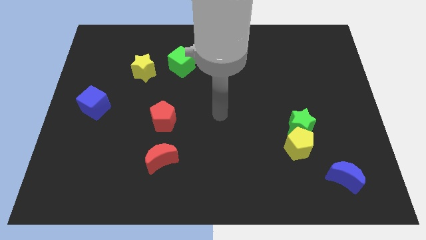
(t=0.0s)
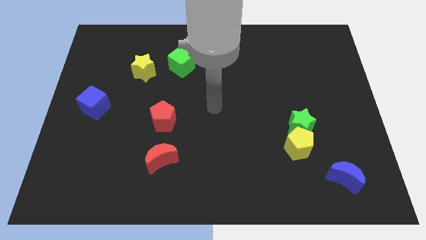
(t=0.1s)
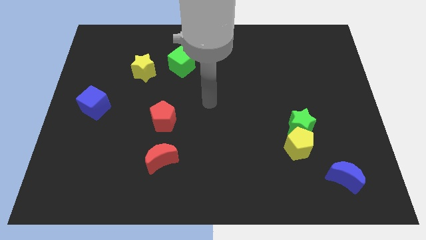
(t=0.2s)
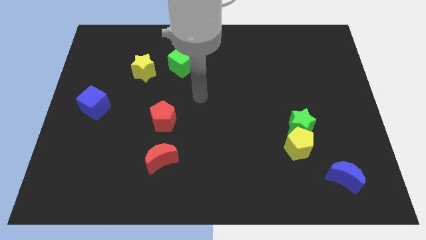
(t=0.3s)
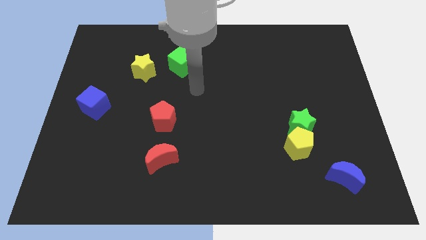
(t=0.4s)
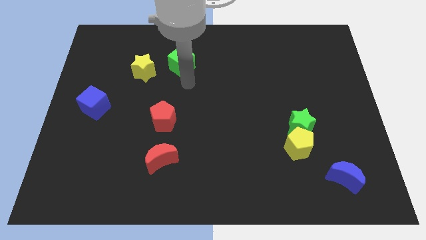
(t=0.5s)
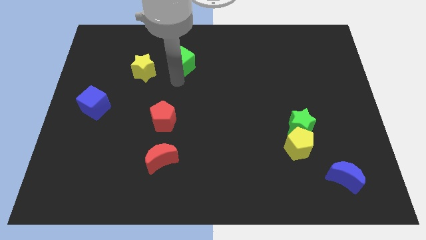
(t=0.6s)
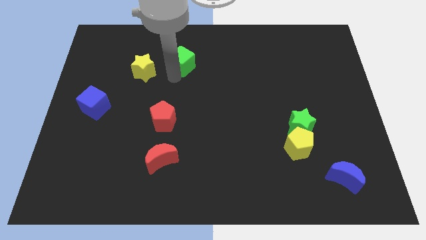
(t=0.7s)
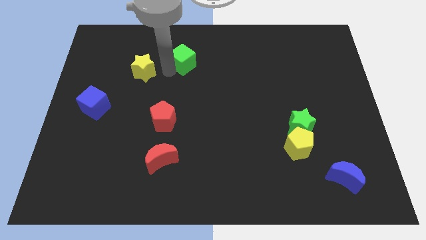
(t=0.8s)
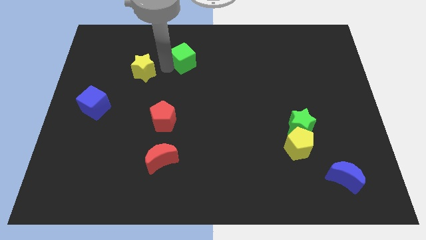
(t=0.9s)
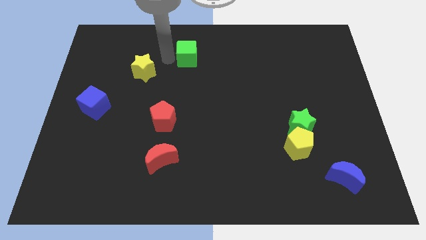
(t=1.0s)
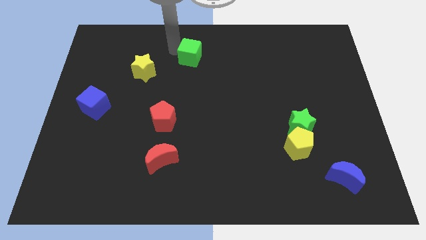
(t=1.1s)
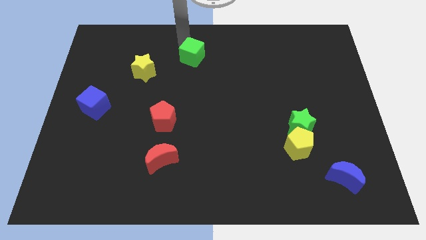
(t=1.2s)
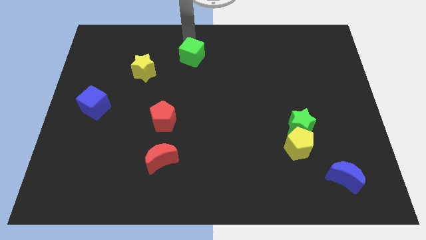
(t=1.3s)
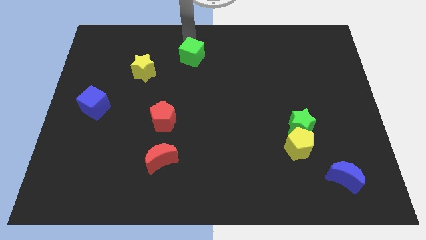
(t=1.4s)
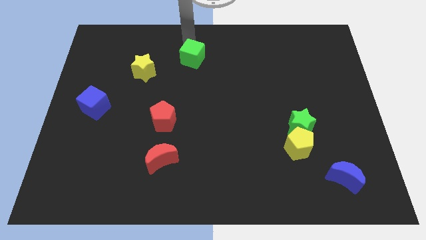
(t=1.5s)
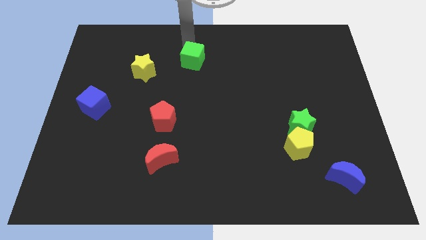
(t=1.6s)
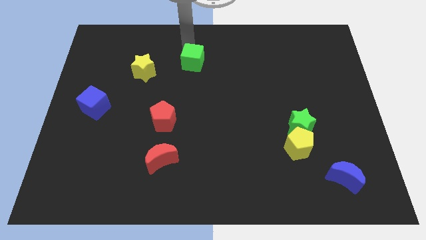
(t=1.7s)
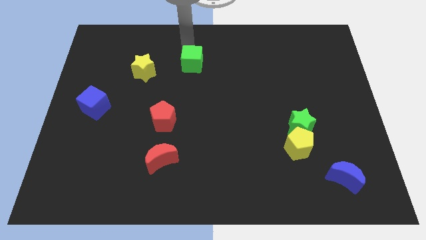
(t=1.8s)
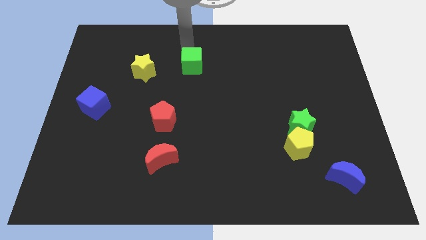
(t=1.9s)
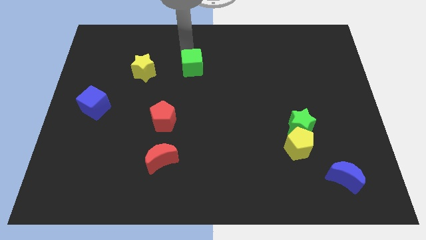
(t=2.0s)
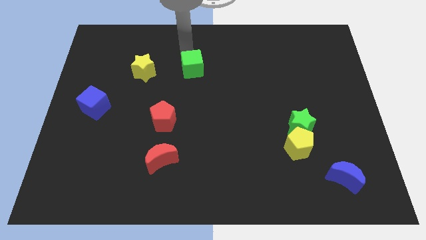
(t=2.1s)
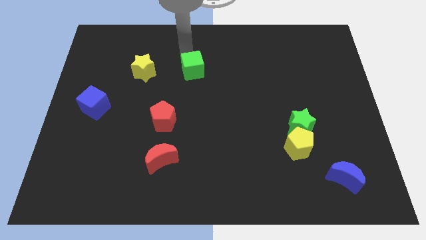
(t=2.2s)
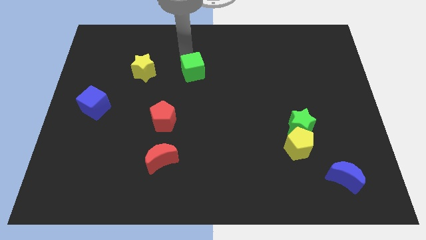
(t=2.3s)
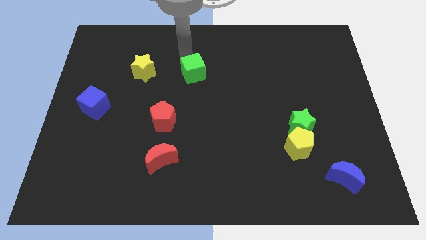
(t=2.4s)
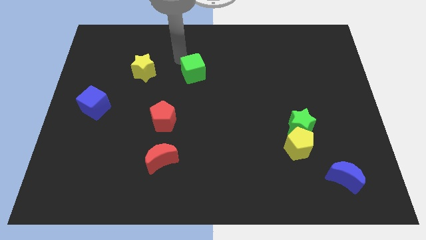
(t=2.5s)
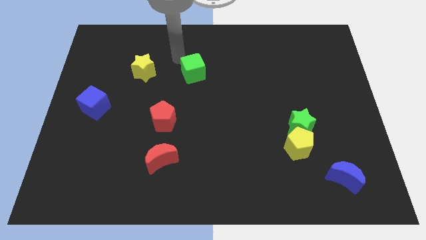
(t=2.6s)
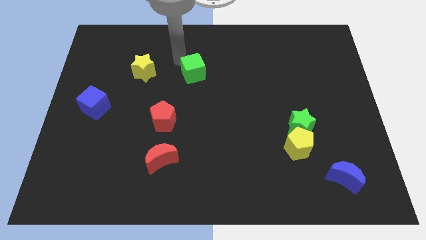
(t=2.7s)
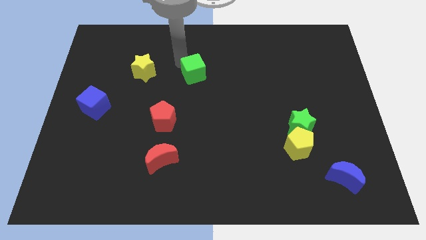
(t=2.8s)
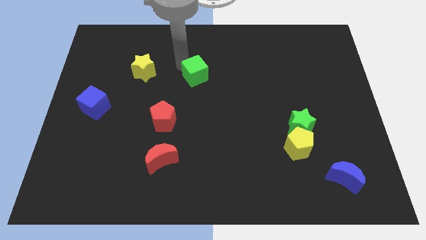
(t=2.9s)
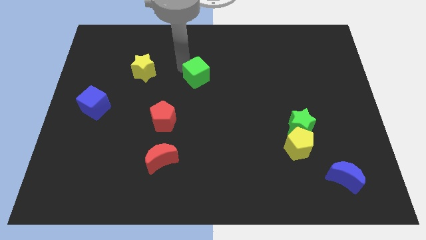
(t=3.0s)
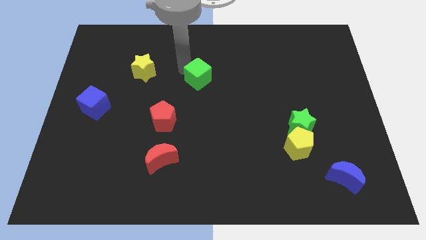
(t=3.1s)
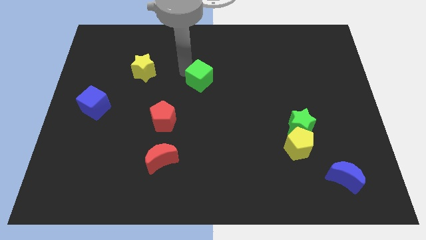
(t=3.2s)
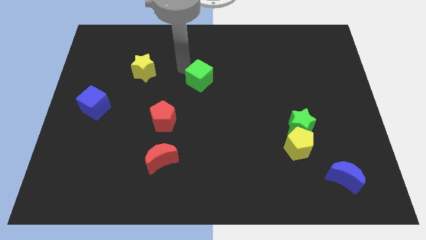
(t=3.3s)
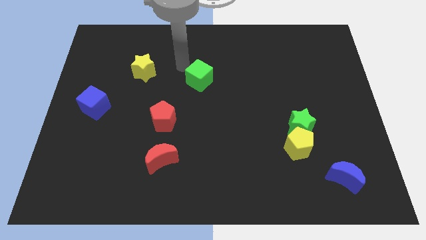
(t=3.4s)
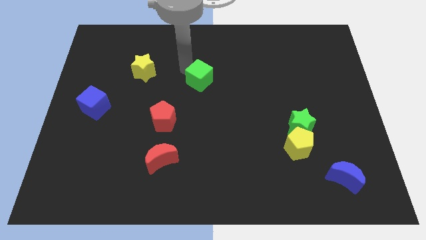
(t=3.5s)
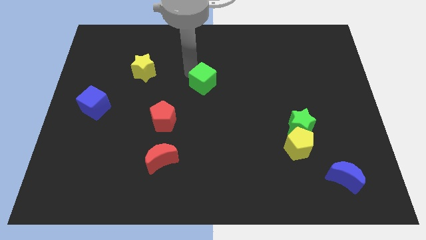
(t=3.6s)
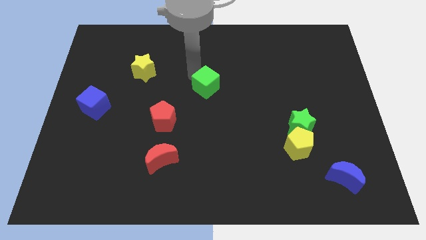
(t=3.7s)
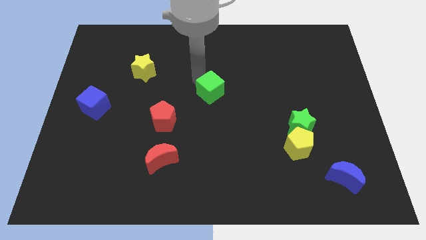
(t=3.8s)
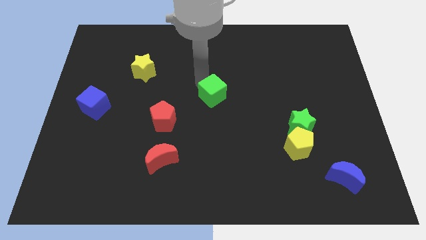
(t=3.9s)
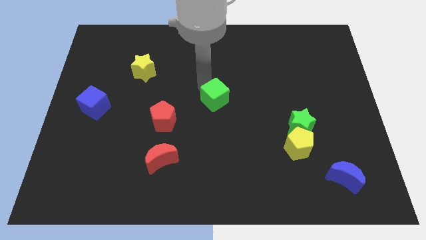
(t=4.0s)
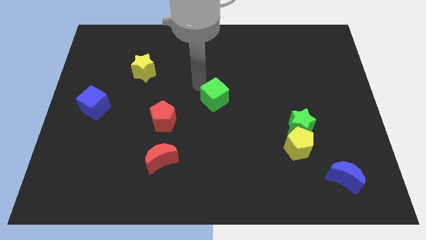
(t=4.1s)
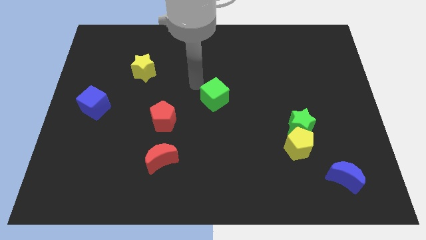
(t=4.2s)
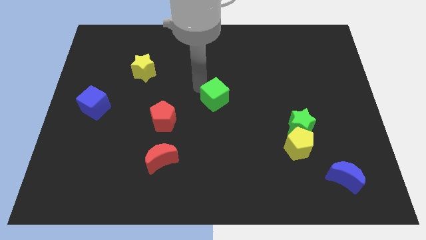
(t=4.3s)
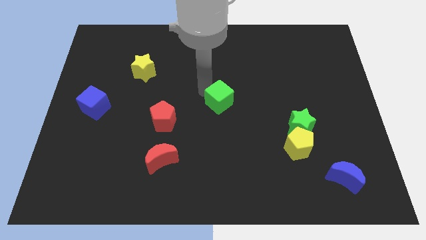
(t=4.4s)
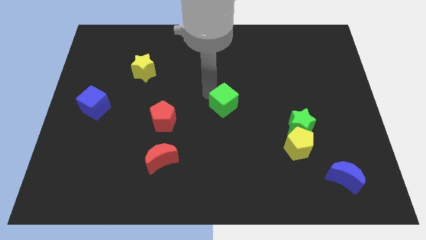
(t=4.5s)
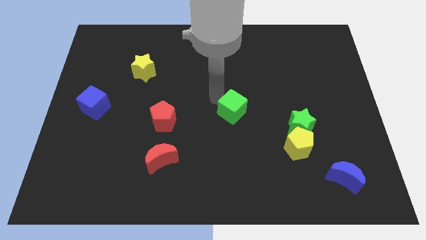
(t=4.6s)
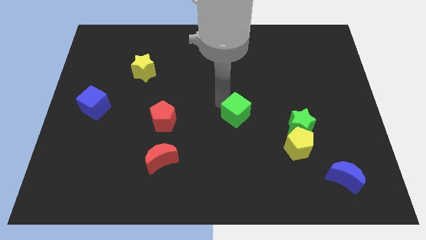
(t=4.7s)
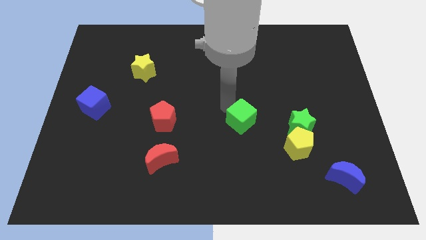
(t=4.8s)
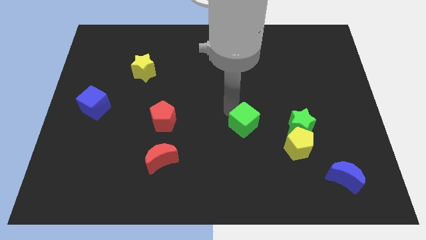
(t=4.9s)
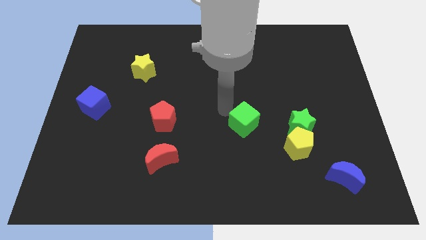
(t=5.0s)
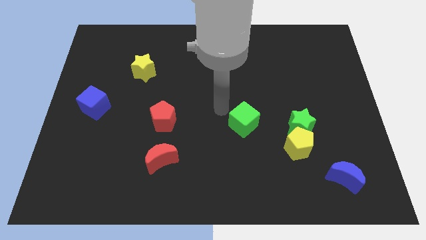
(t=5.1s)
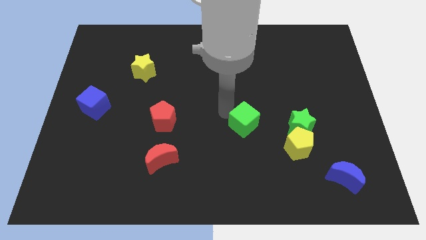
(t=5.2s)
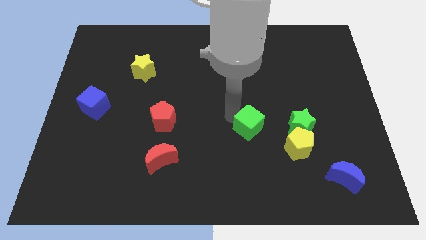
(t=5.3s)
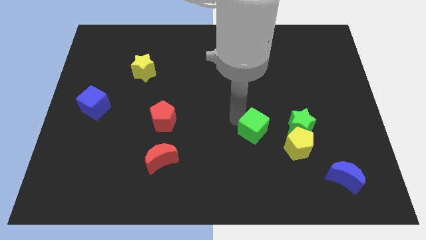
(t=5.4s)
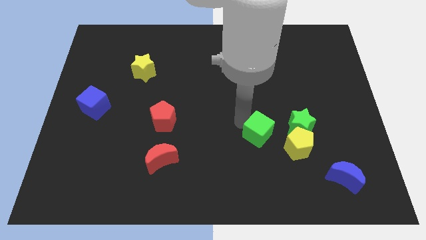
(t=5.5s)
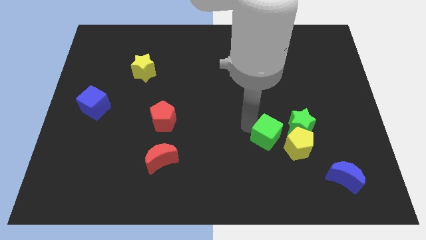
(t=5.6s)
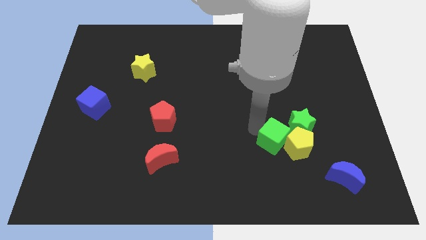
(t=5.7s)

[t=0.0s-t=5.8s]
push the green cube next to the yellow pentagon

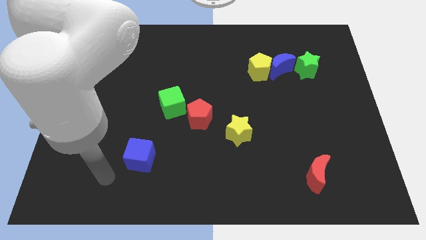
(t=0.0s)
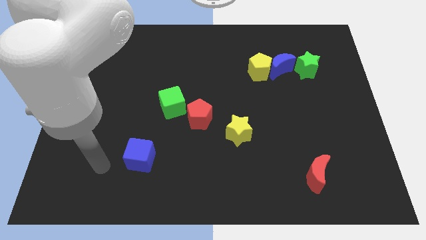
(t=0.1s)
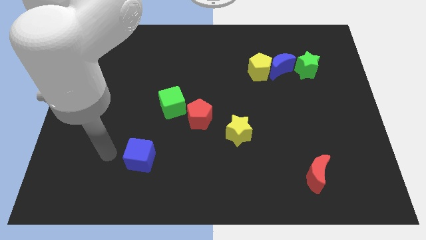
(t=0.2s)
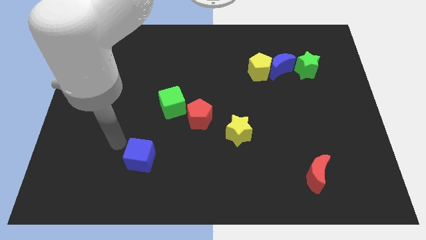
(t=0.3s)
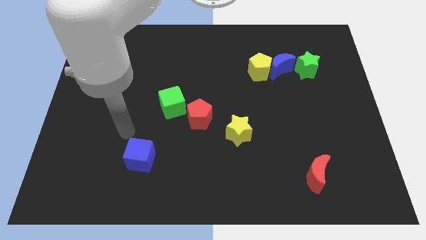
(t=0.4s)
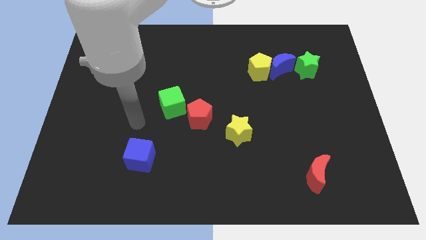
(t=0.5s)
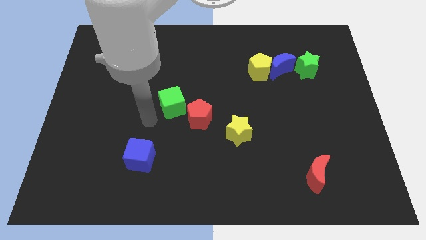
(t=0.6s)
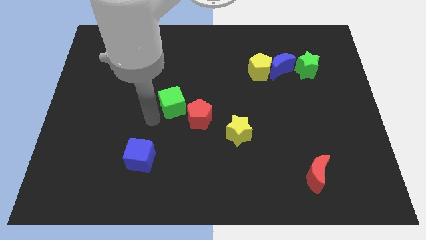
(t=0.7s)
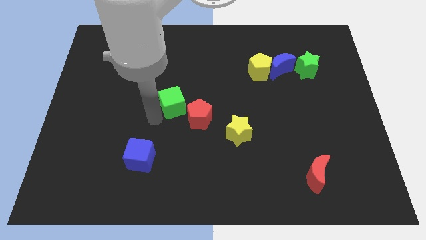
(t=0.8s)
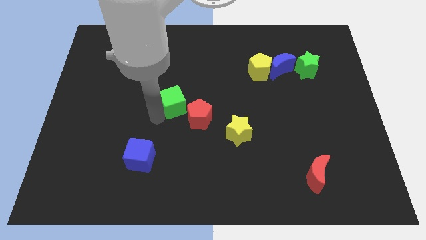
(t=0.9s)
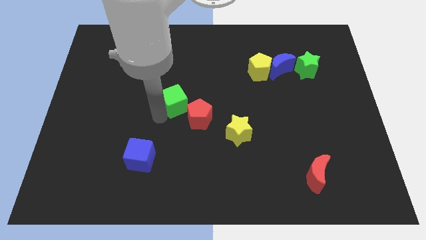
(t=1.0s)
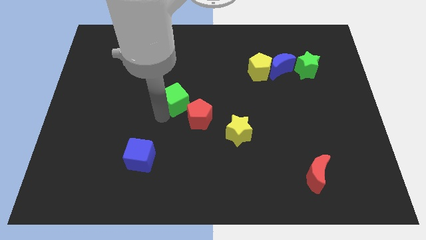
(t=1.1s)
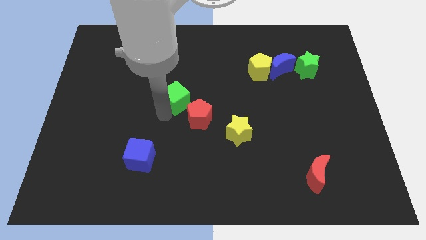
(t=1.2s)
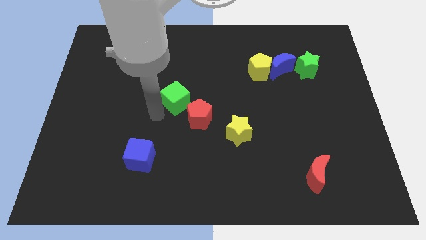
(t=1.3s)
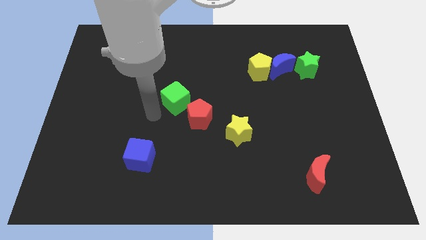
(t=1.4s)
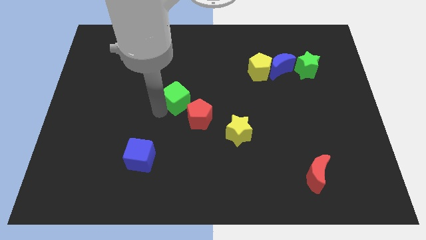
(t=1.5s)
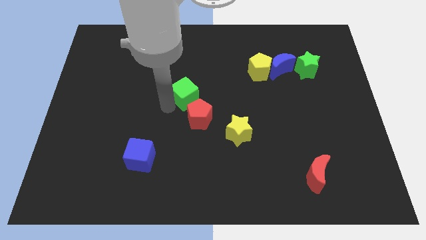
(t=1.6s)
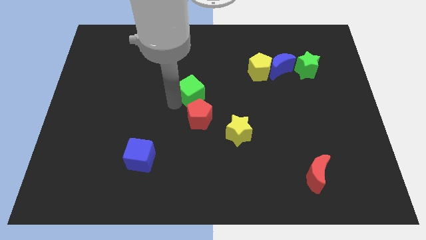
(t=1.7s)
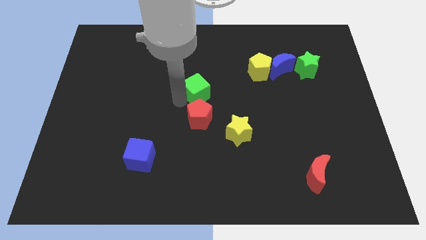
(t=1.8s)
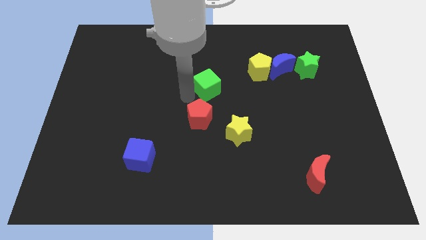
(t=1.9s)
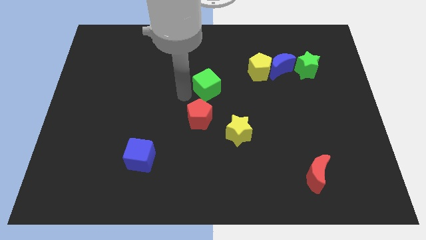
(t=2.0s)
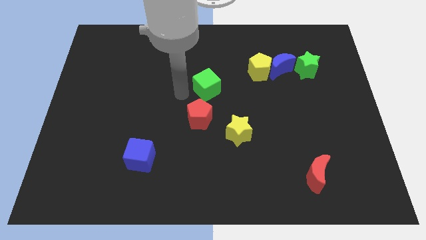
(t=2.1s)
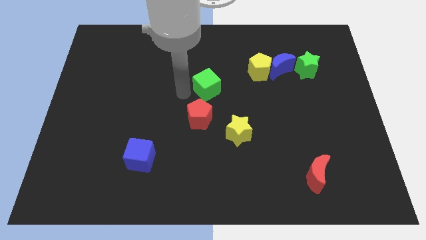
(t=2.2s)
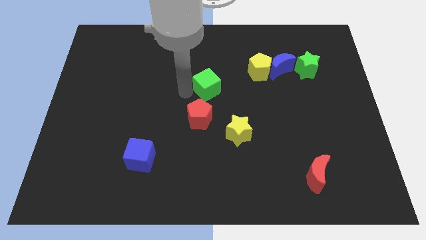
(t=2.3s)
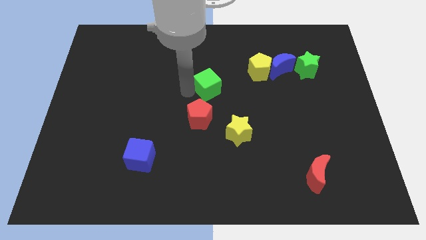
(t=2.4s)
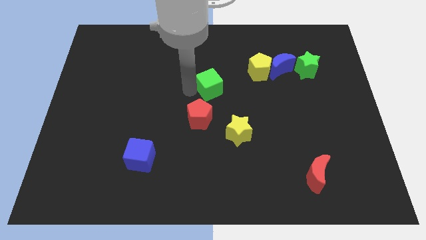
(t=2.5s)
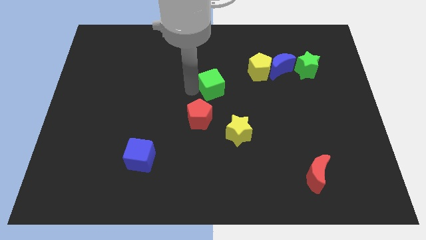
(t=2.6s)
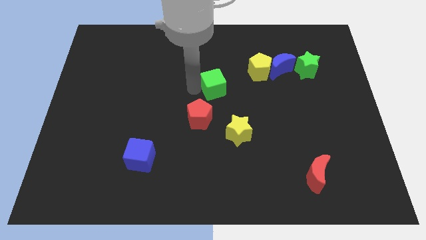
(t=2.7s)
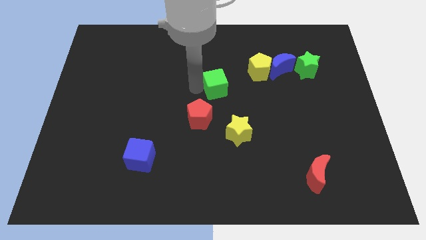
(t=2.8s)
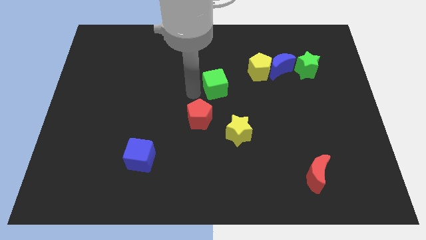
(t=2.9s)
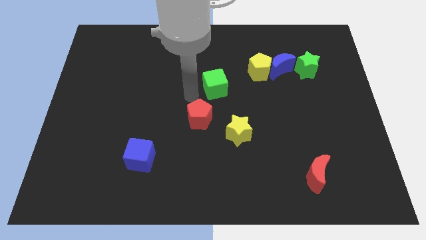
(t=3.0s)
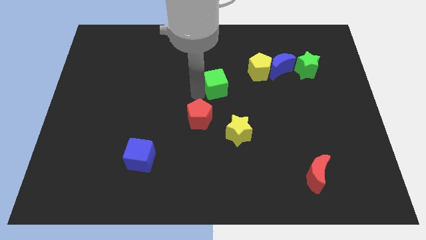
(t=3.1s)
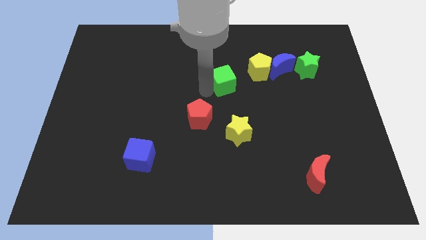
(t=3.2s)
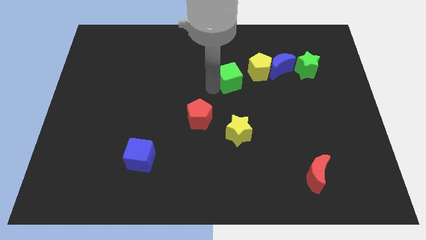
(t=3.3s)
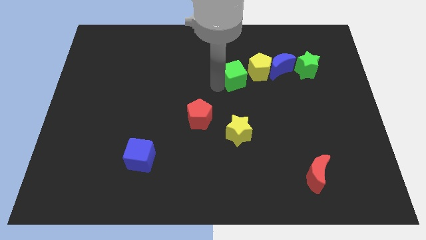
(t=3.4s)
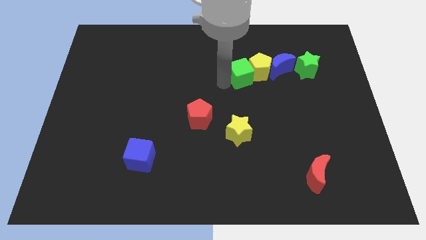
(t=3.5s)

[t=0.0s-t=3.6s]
slide the green cube towards the yellow pentagon
